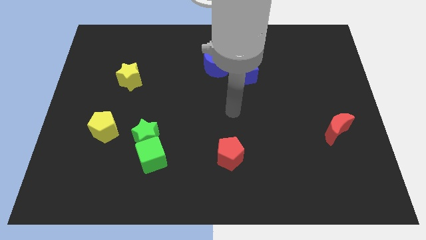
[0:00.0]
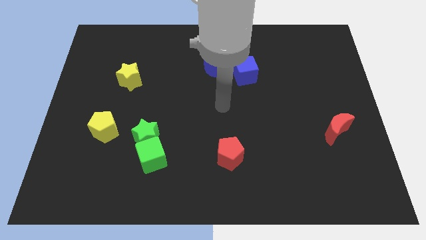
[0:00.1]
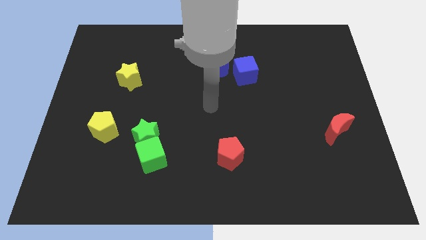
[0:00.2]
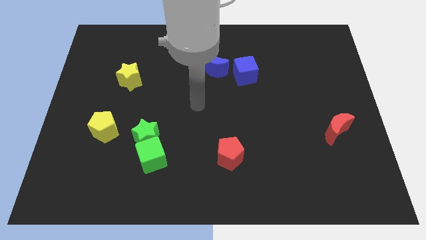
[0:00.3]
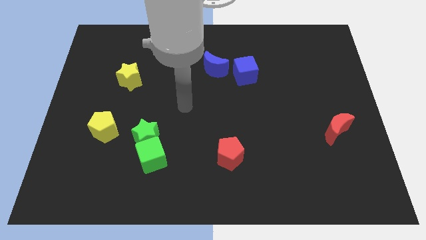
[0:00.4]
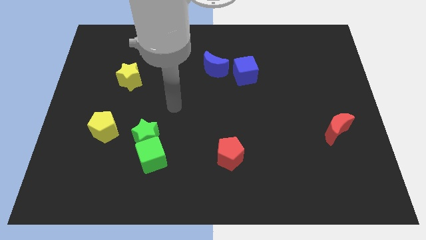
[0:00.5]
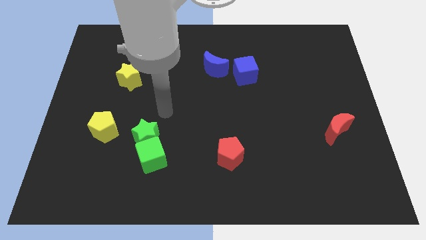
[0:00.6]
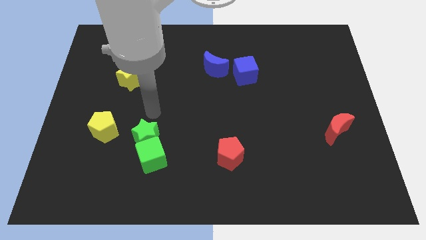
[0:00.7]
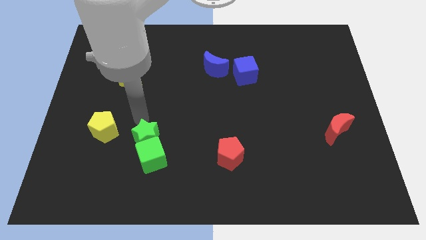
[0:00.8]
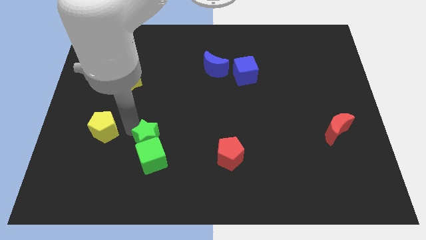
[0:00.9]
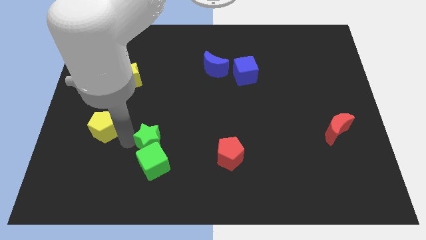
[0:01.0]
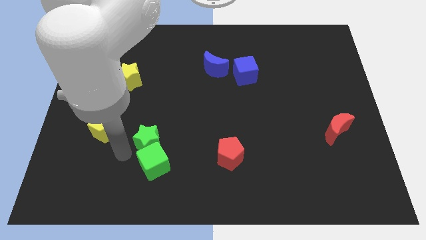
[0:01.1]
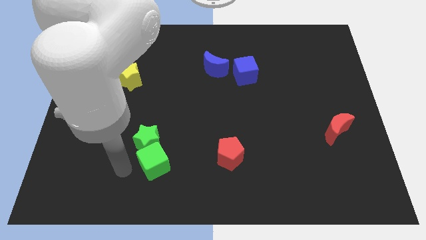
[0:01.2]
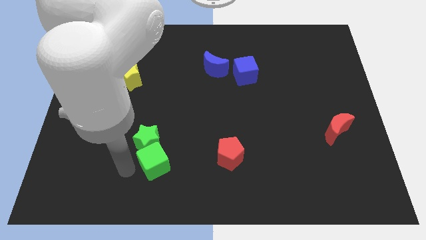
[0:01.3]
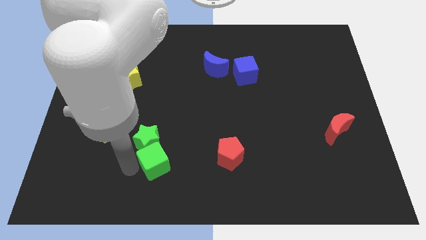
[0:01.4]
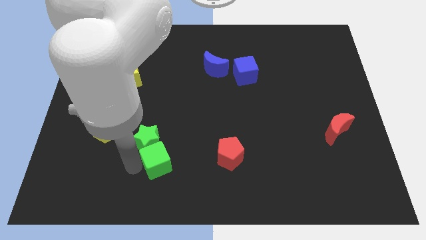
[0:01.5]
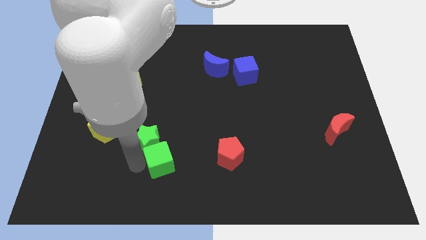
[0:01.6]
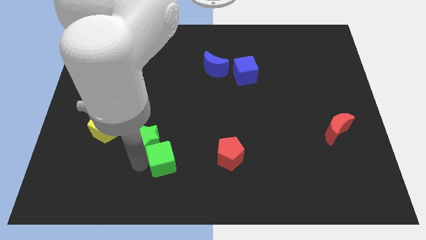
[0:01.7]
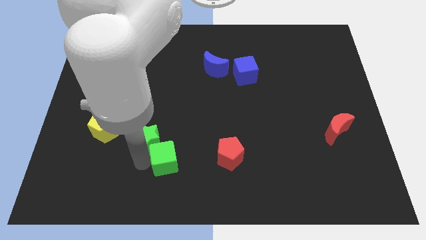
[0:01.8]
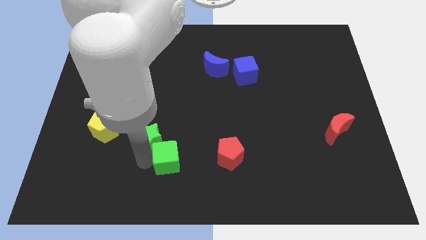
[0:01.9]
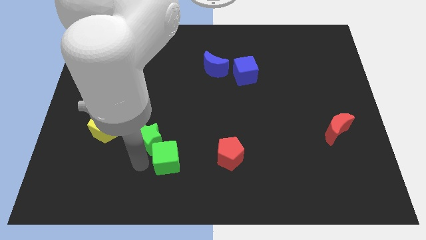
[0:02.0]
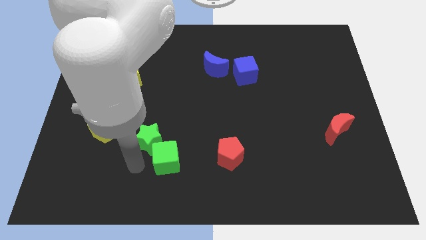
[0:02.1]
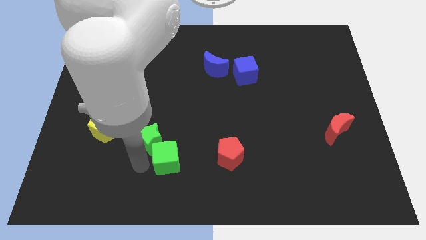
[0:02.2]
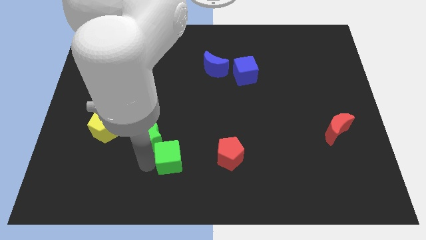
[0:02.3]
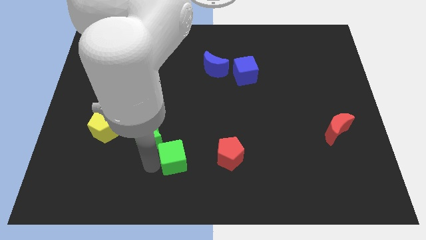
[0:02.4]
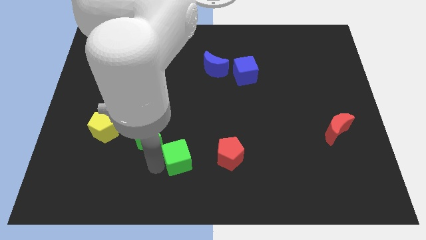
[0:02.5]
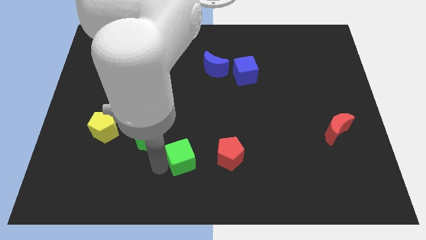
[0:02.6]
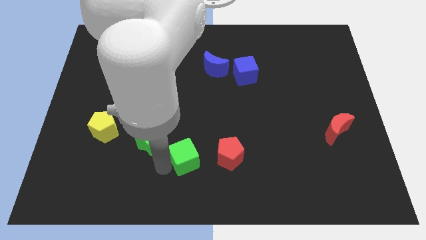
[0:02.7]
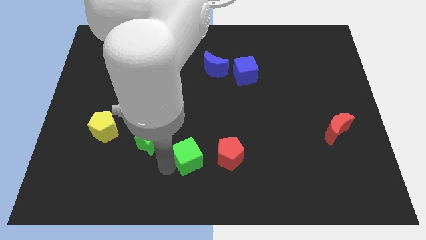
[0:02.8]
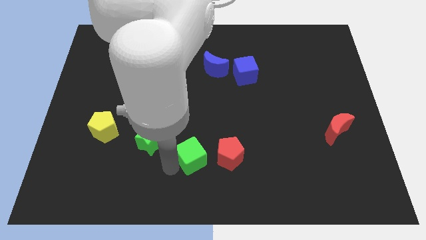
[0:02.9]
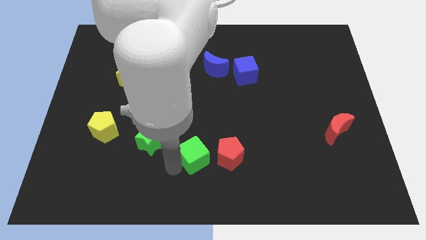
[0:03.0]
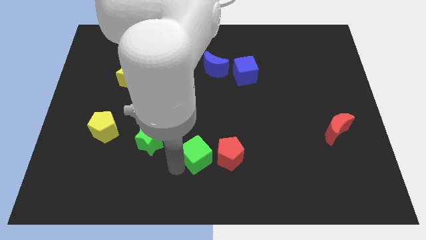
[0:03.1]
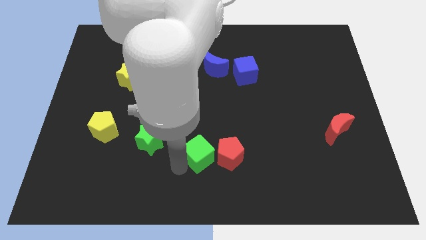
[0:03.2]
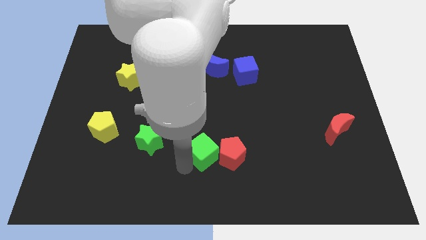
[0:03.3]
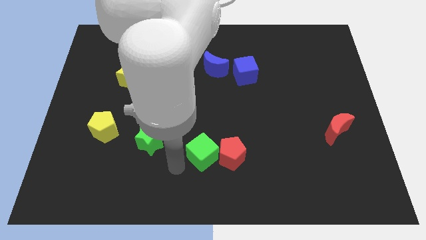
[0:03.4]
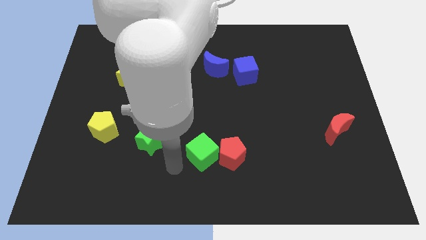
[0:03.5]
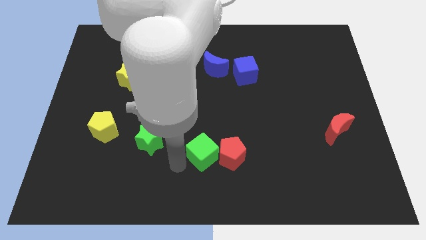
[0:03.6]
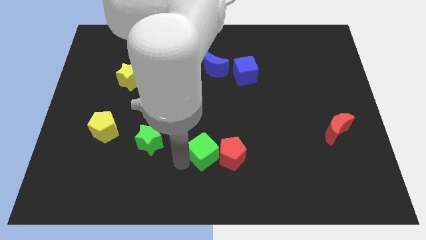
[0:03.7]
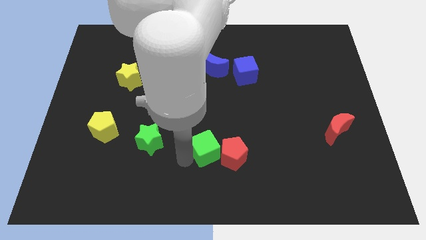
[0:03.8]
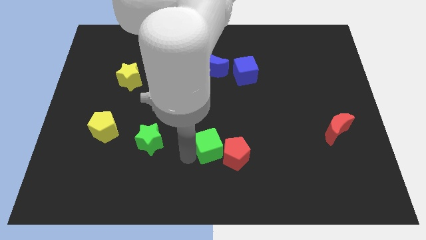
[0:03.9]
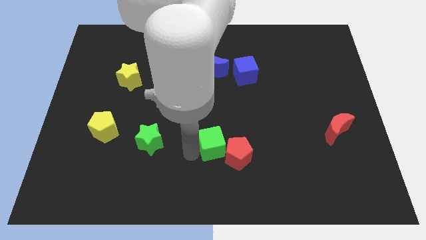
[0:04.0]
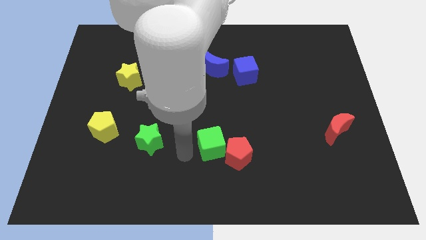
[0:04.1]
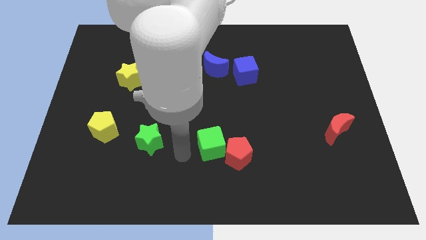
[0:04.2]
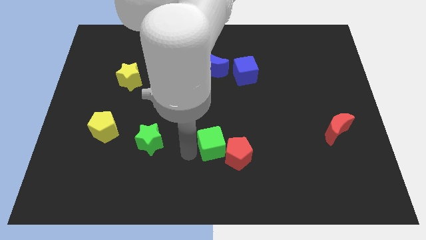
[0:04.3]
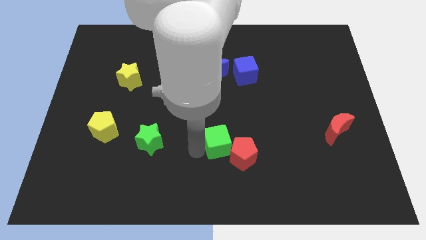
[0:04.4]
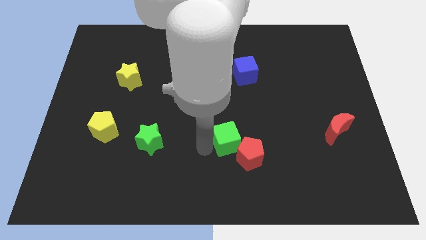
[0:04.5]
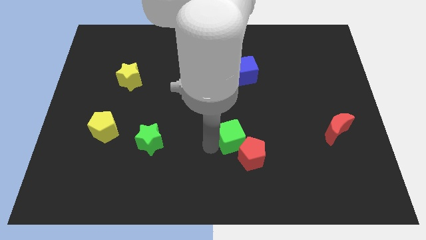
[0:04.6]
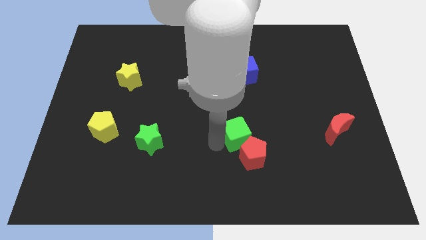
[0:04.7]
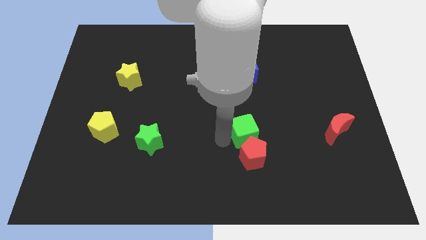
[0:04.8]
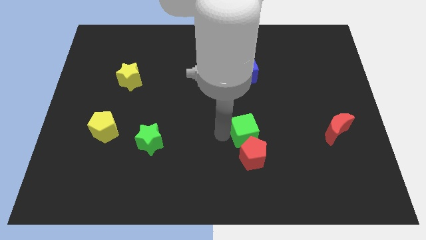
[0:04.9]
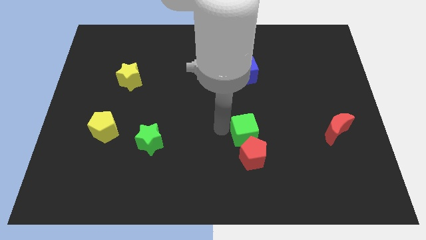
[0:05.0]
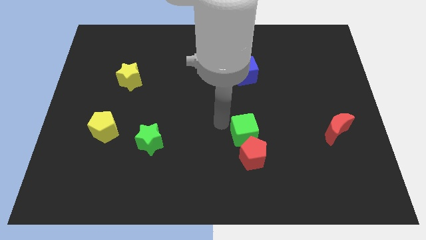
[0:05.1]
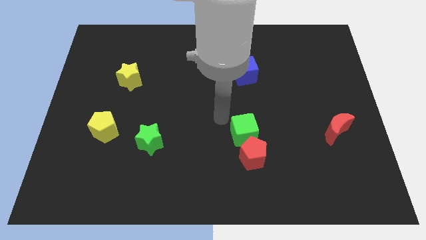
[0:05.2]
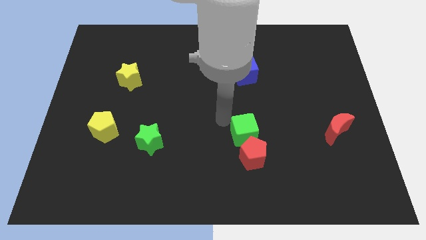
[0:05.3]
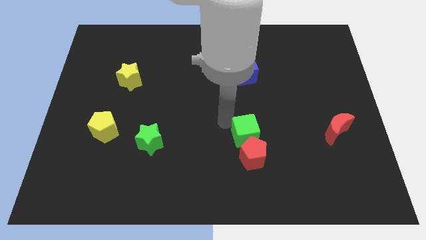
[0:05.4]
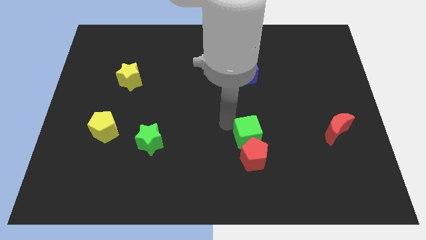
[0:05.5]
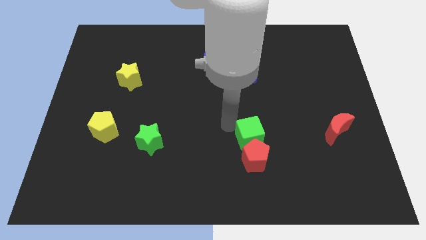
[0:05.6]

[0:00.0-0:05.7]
push the green cube to the right

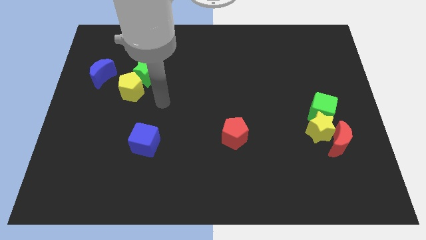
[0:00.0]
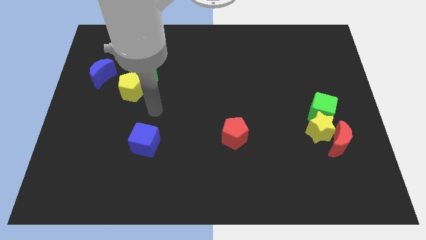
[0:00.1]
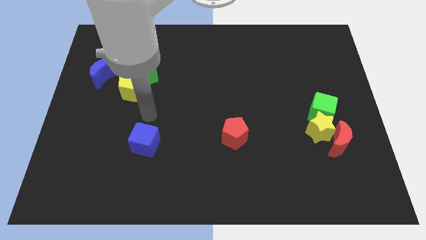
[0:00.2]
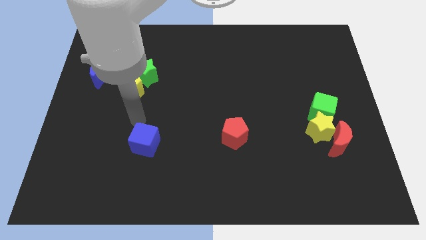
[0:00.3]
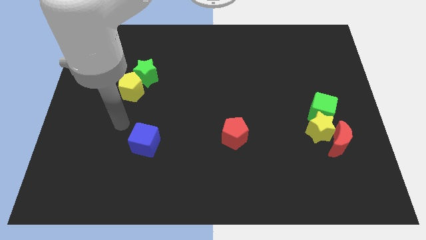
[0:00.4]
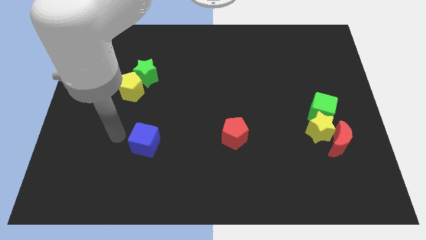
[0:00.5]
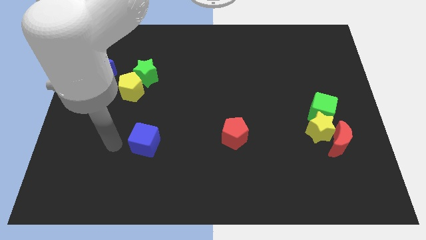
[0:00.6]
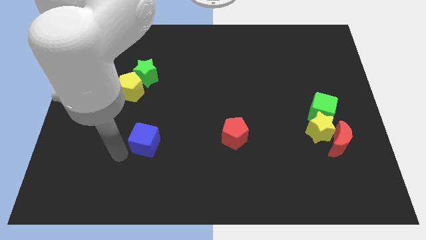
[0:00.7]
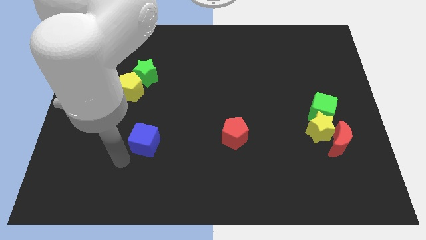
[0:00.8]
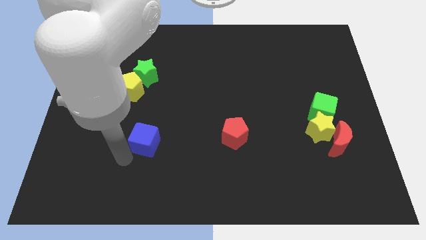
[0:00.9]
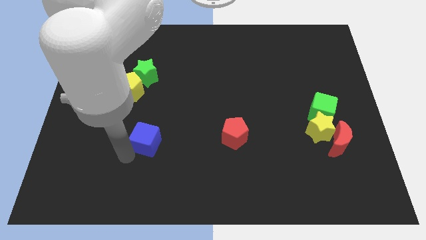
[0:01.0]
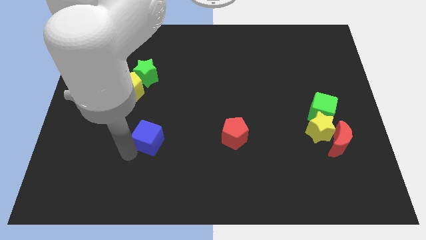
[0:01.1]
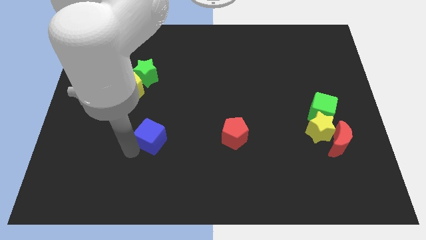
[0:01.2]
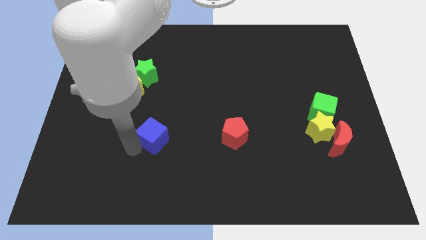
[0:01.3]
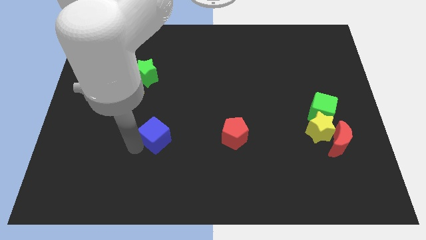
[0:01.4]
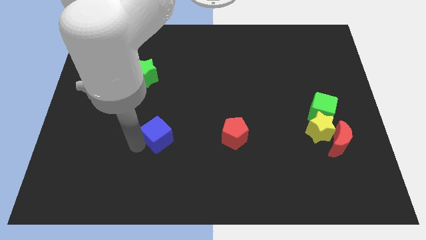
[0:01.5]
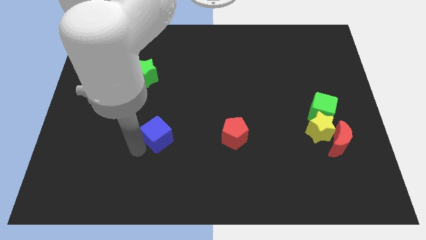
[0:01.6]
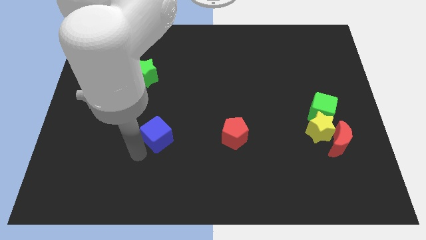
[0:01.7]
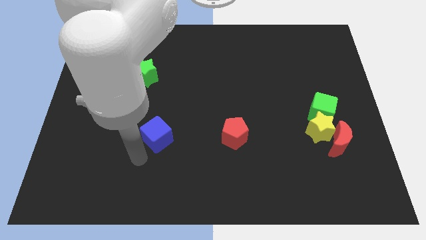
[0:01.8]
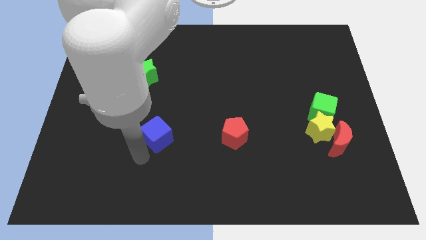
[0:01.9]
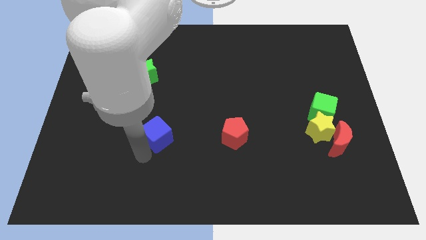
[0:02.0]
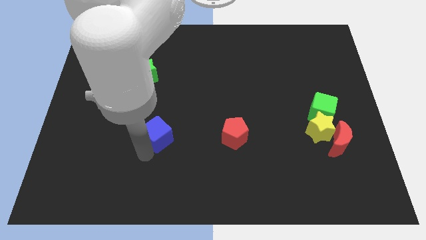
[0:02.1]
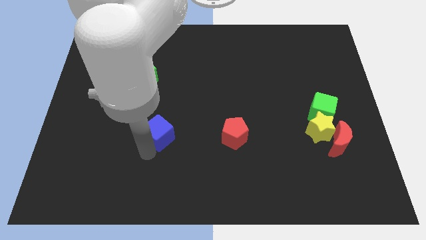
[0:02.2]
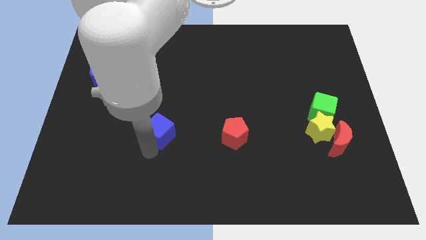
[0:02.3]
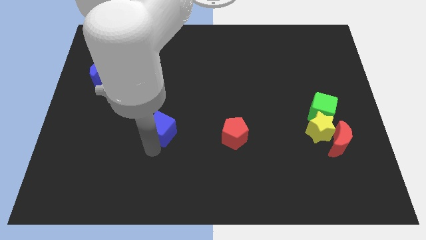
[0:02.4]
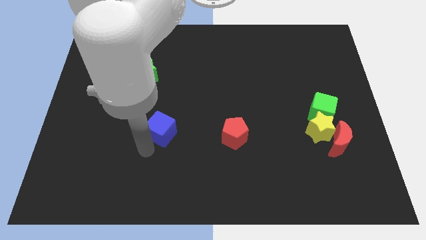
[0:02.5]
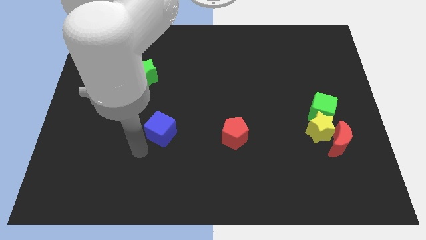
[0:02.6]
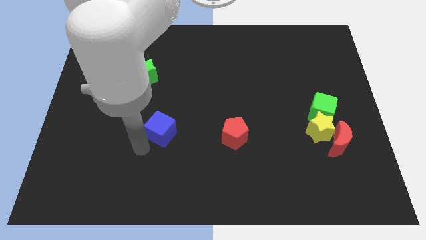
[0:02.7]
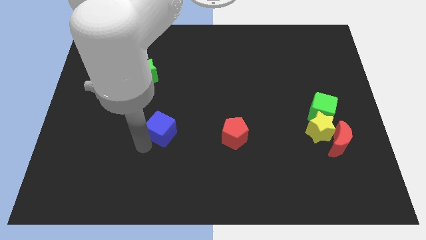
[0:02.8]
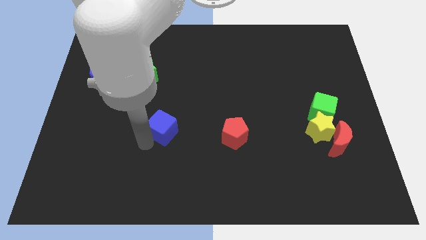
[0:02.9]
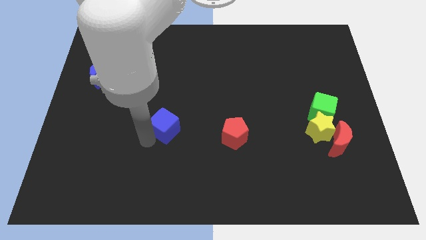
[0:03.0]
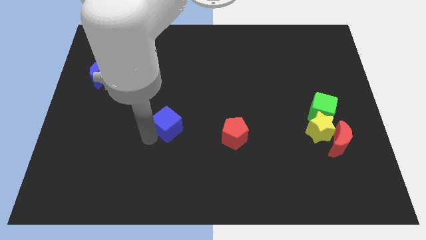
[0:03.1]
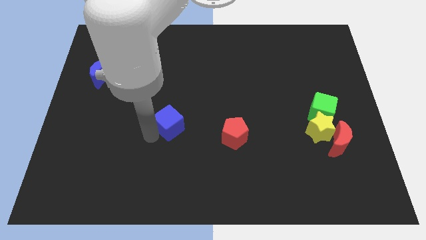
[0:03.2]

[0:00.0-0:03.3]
slide the blue cube a bit diagonally up and to the right
